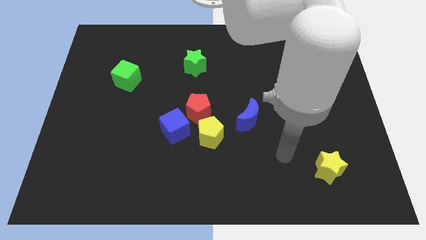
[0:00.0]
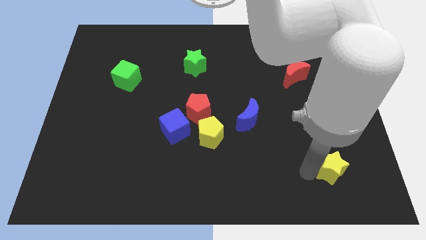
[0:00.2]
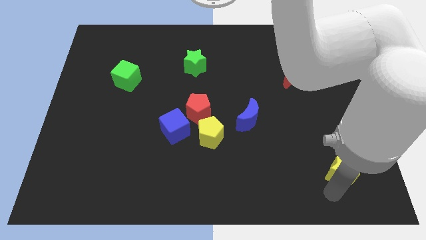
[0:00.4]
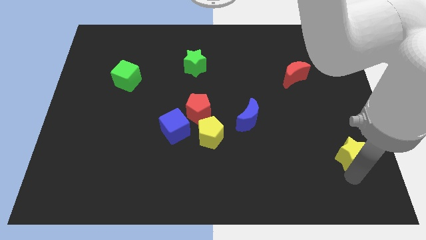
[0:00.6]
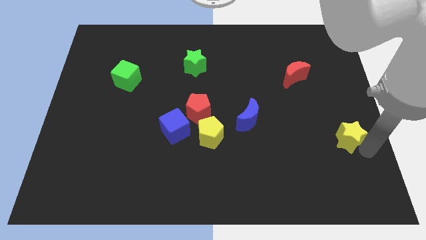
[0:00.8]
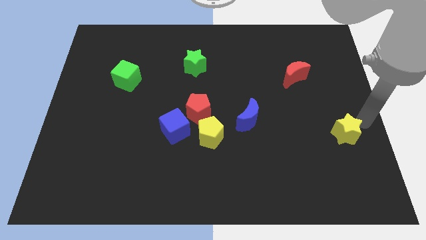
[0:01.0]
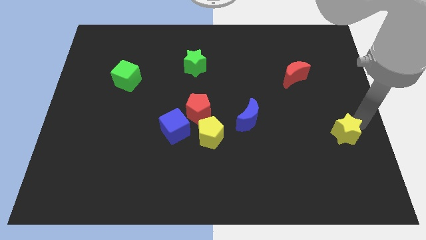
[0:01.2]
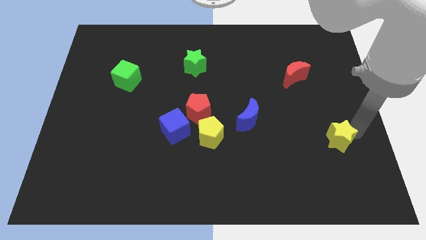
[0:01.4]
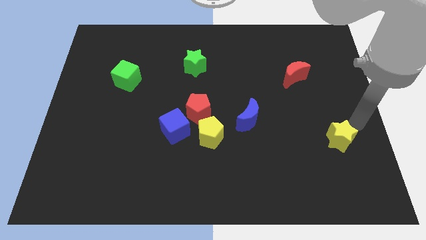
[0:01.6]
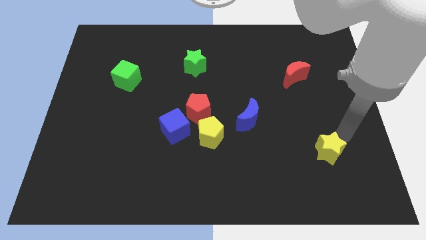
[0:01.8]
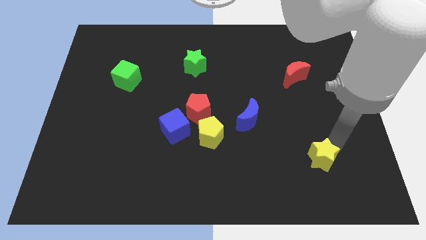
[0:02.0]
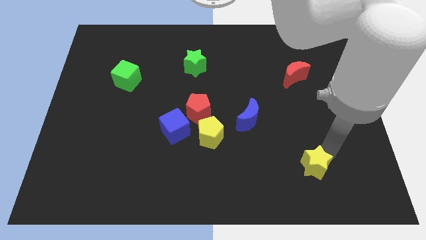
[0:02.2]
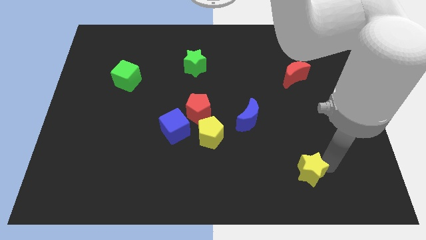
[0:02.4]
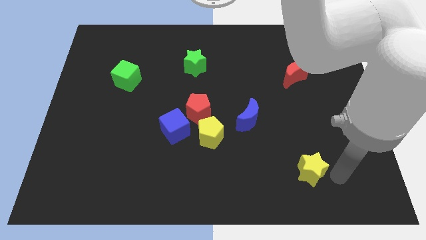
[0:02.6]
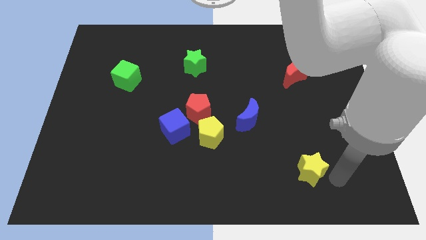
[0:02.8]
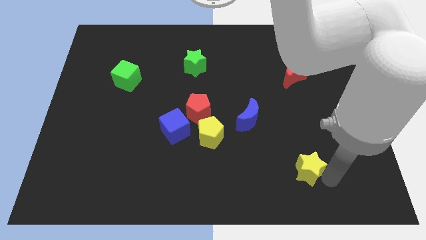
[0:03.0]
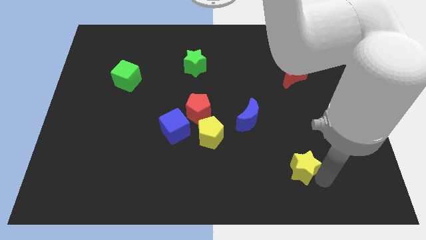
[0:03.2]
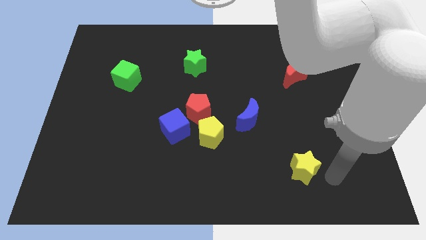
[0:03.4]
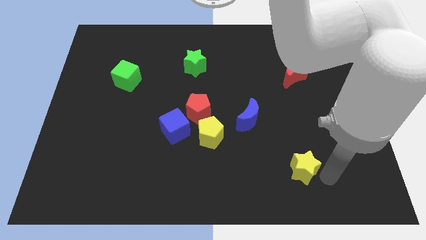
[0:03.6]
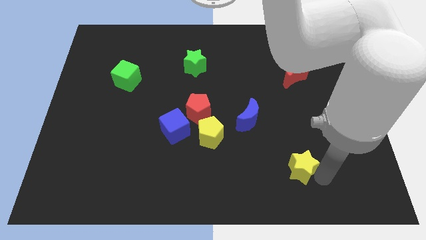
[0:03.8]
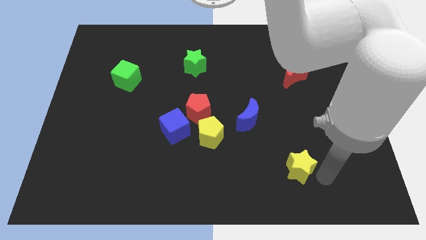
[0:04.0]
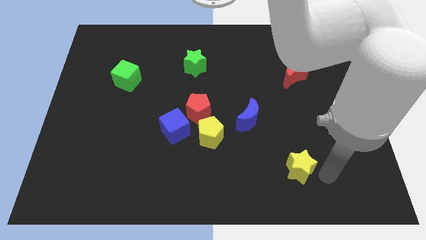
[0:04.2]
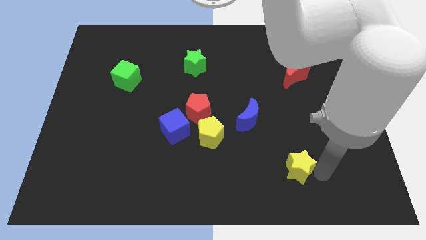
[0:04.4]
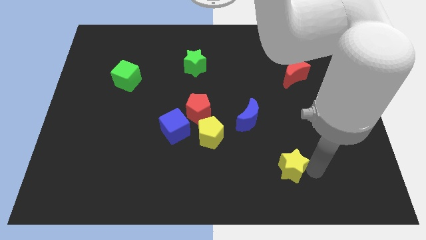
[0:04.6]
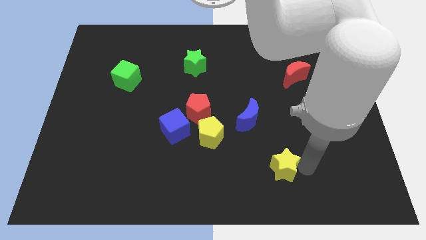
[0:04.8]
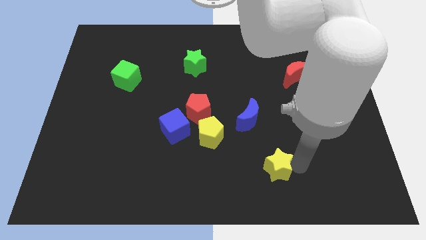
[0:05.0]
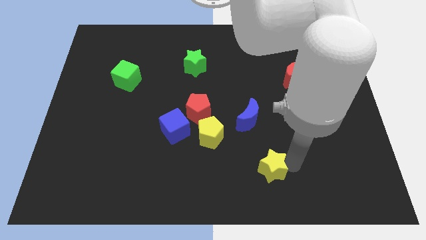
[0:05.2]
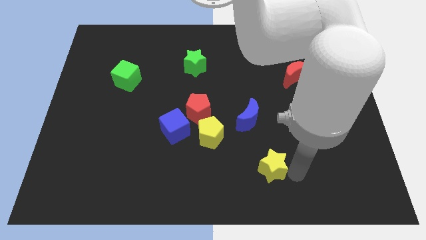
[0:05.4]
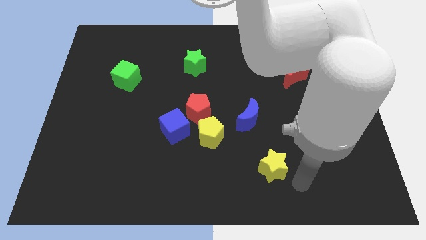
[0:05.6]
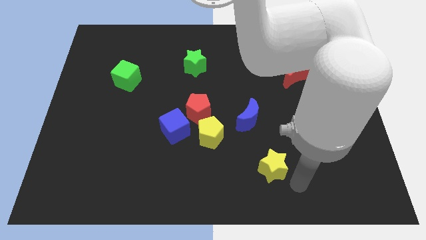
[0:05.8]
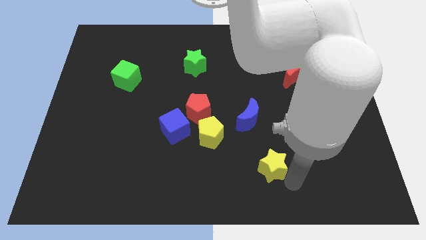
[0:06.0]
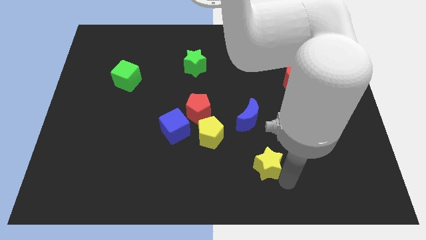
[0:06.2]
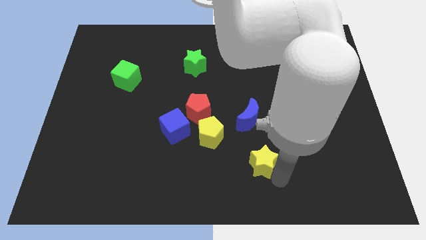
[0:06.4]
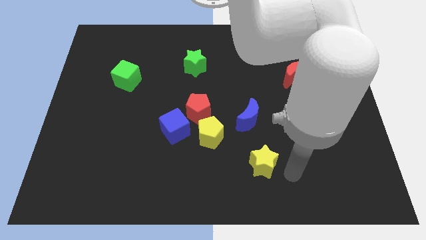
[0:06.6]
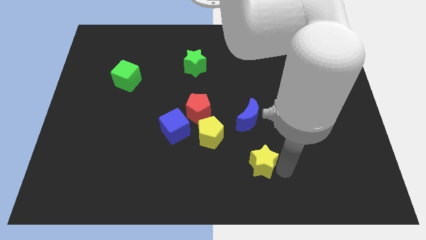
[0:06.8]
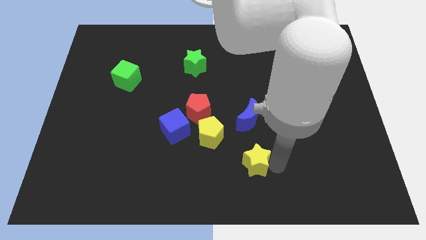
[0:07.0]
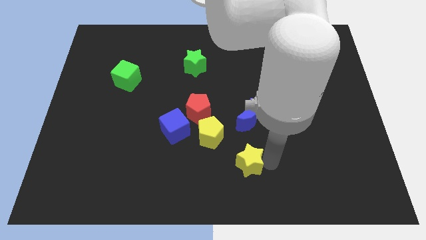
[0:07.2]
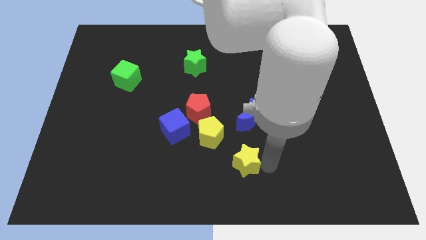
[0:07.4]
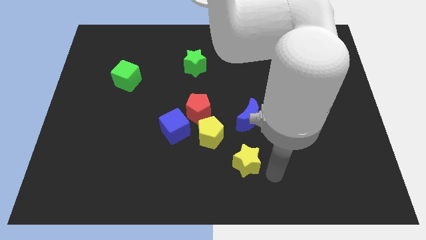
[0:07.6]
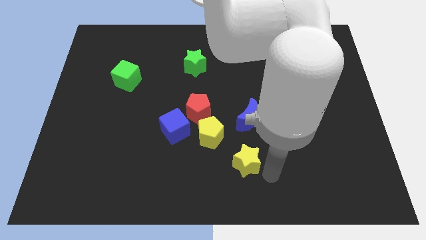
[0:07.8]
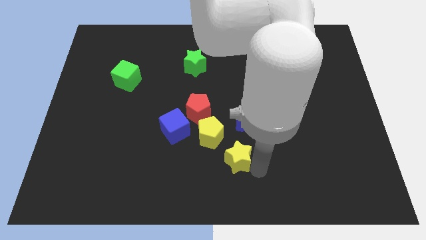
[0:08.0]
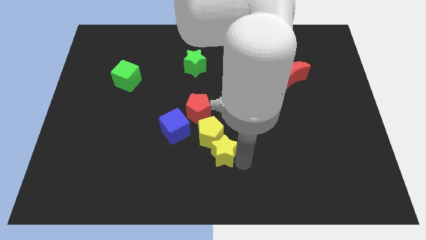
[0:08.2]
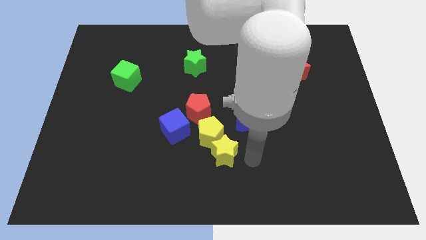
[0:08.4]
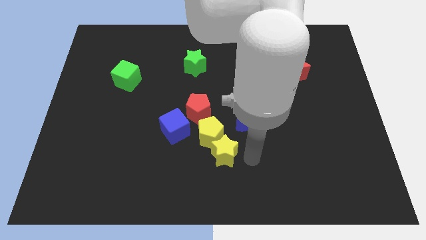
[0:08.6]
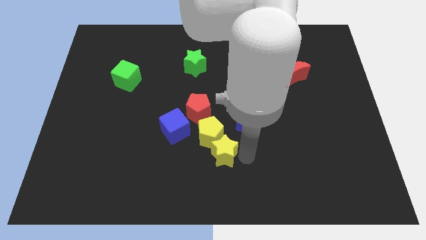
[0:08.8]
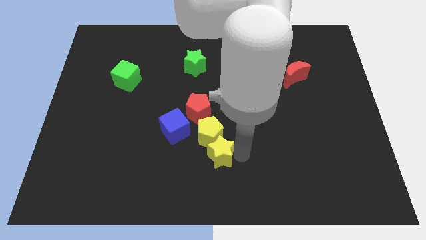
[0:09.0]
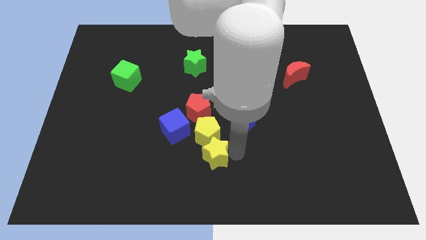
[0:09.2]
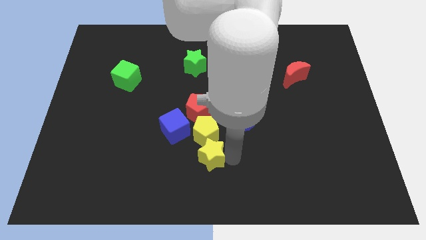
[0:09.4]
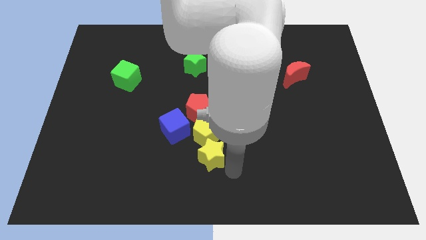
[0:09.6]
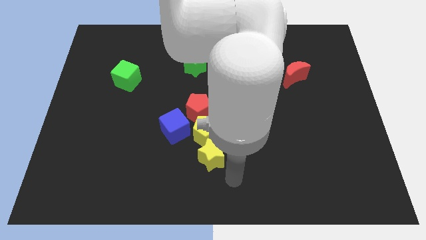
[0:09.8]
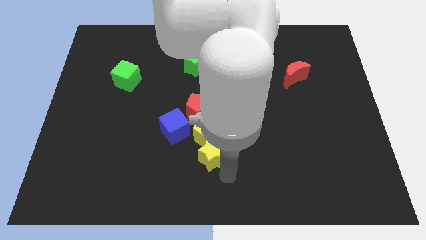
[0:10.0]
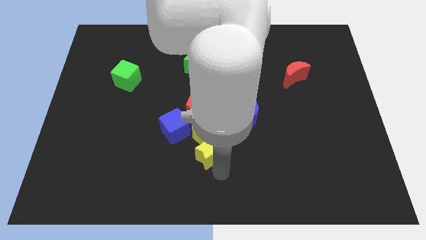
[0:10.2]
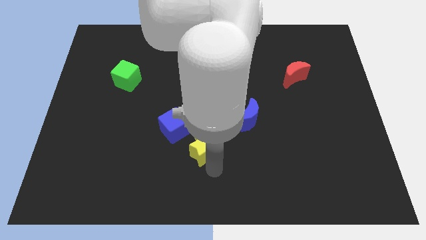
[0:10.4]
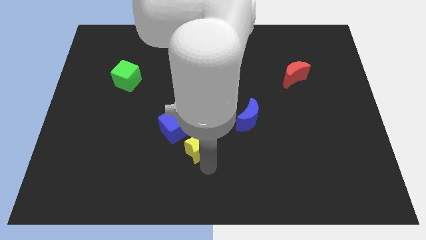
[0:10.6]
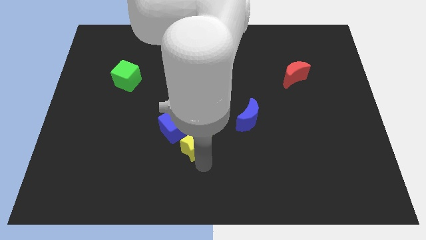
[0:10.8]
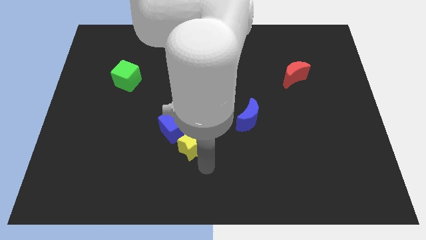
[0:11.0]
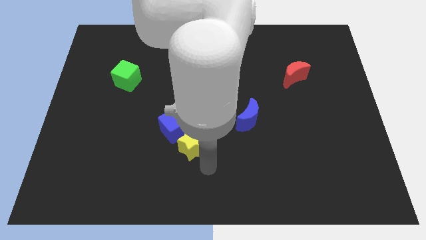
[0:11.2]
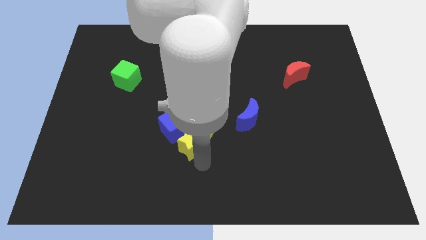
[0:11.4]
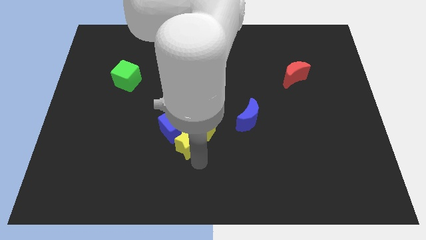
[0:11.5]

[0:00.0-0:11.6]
put the yellow star towards the blue cube

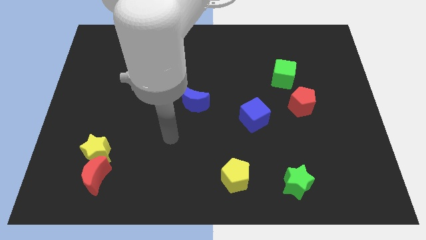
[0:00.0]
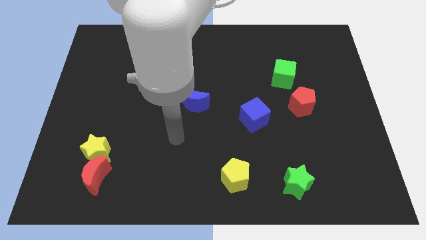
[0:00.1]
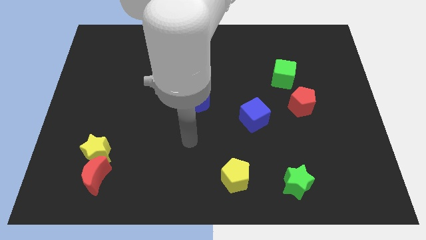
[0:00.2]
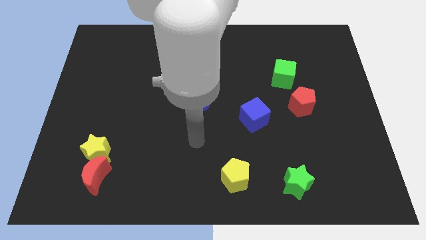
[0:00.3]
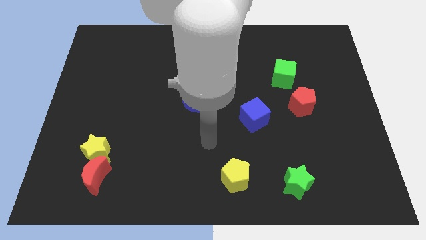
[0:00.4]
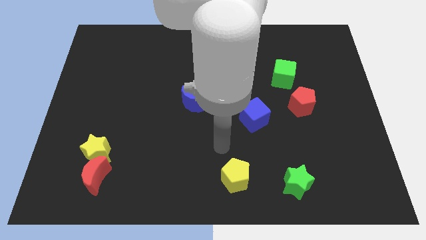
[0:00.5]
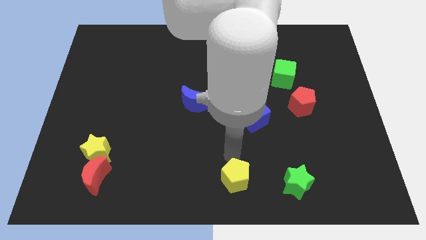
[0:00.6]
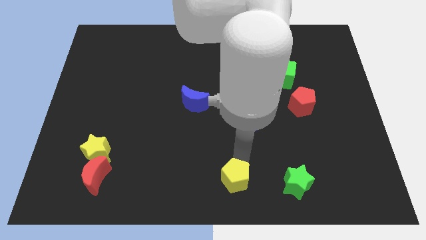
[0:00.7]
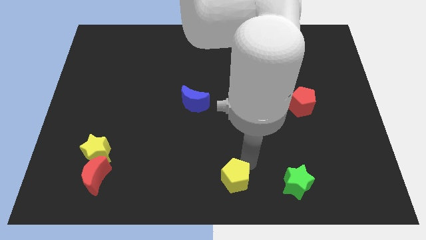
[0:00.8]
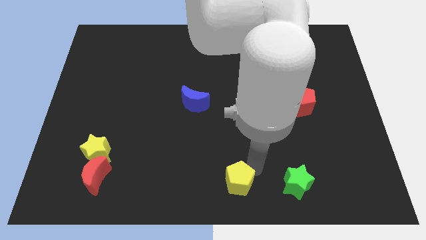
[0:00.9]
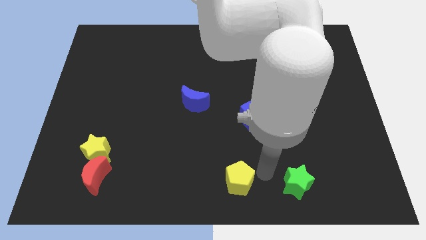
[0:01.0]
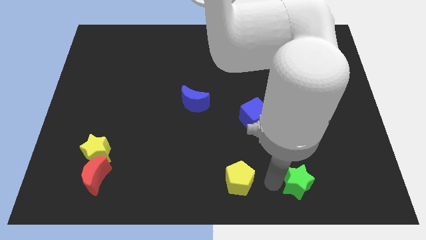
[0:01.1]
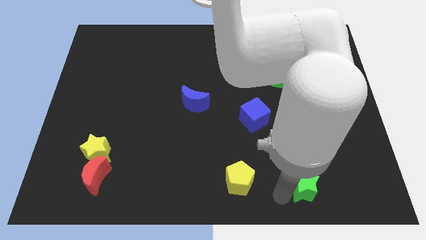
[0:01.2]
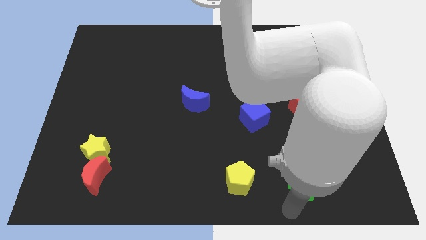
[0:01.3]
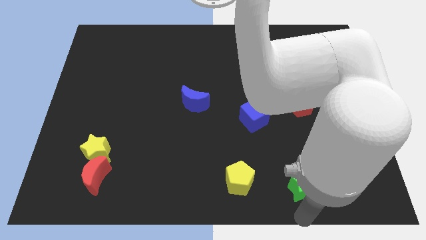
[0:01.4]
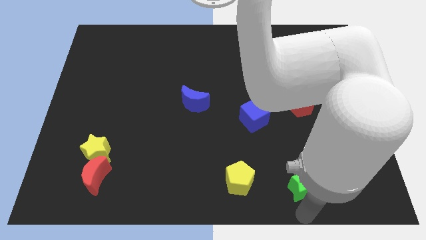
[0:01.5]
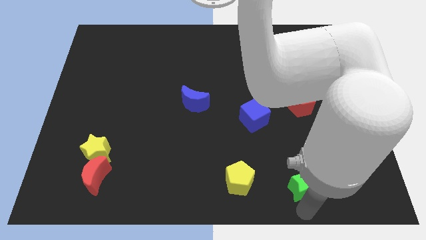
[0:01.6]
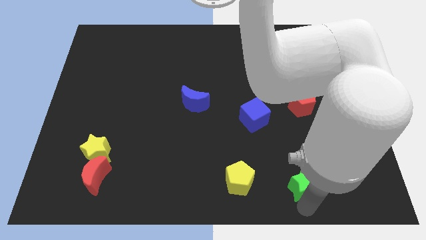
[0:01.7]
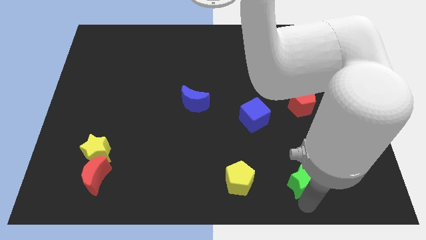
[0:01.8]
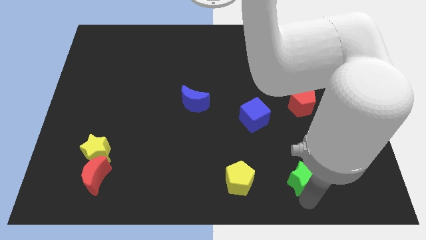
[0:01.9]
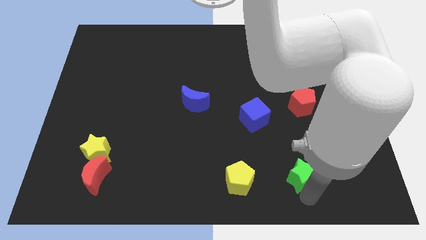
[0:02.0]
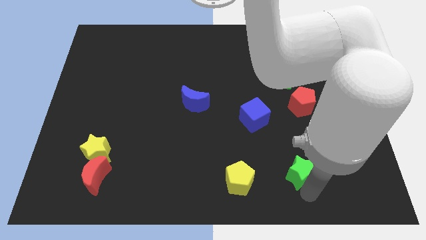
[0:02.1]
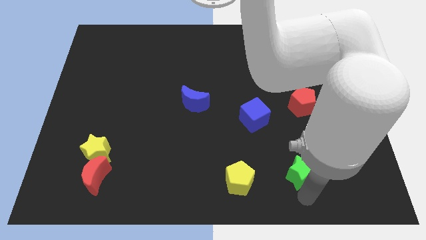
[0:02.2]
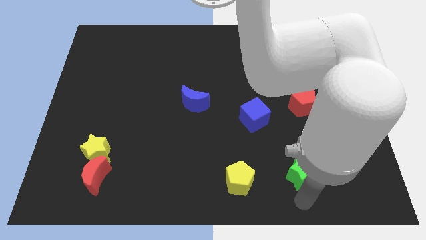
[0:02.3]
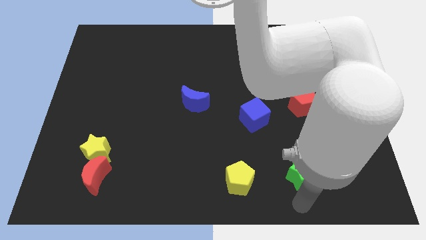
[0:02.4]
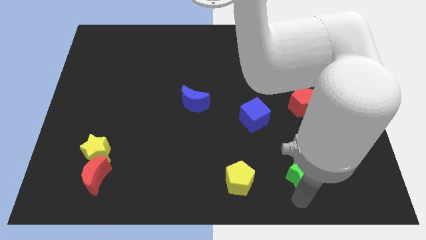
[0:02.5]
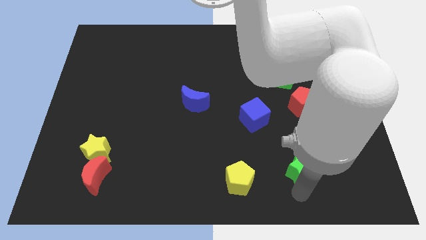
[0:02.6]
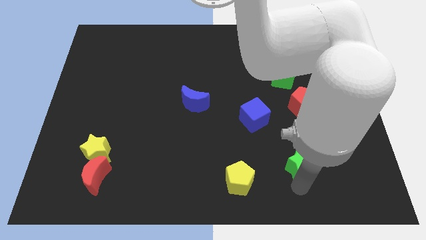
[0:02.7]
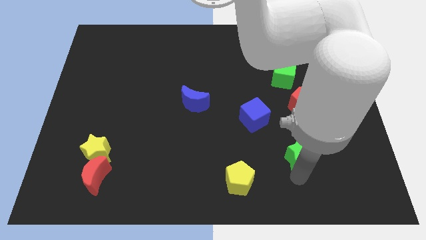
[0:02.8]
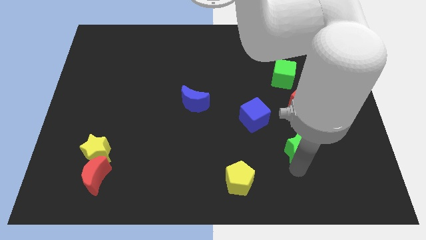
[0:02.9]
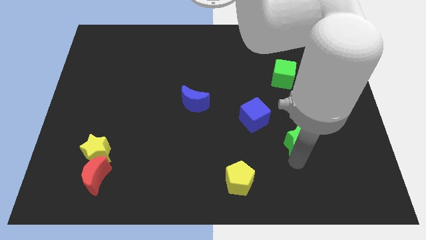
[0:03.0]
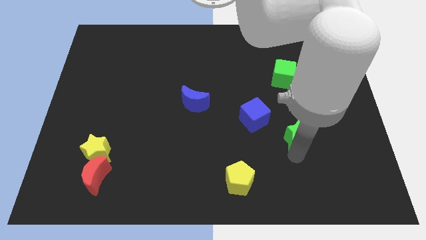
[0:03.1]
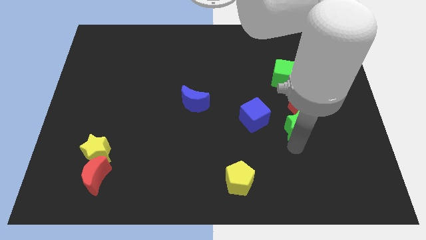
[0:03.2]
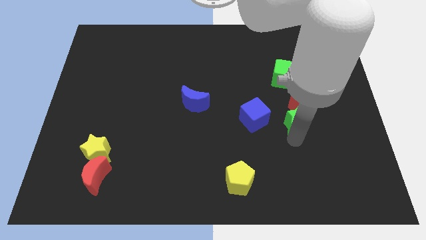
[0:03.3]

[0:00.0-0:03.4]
move the green star to the red pentagon
